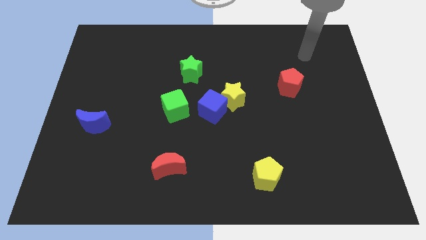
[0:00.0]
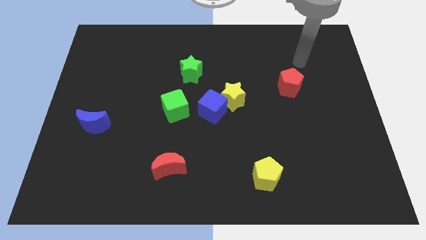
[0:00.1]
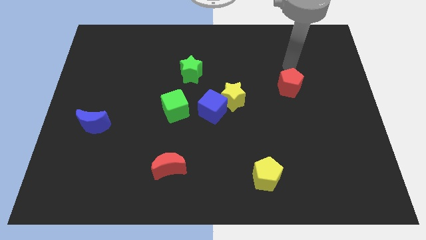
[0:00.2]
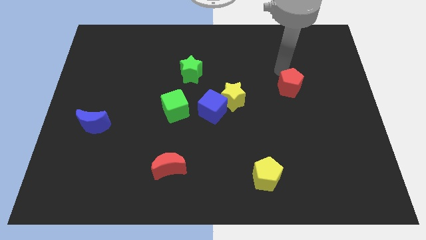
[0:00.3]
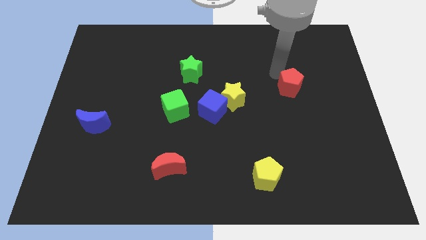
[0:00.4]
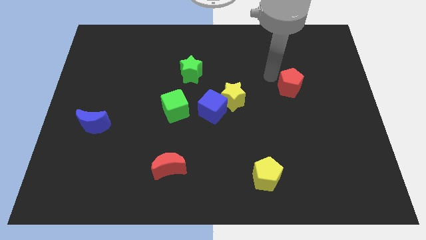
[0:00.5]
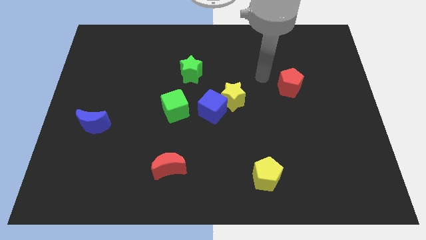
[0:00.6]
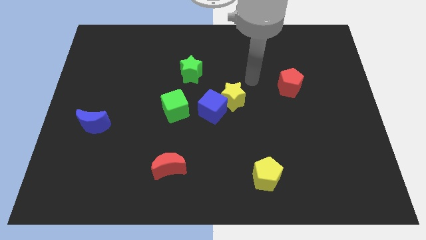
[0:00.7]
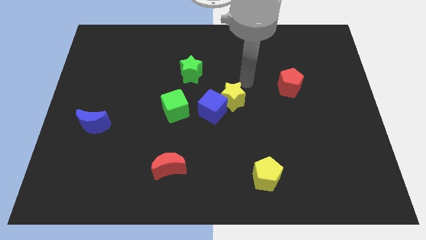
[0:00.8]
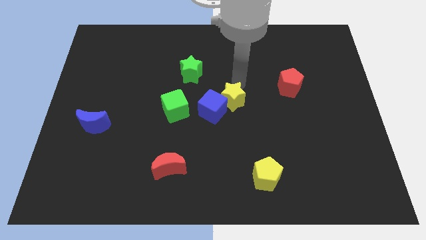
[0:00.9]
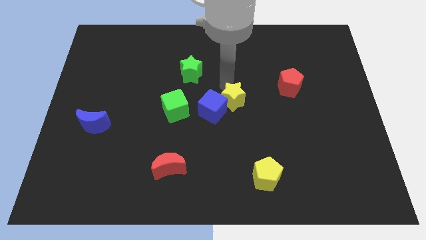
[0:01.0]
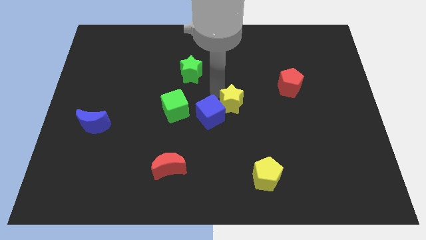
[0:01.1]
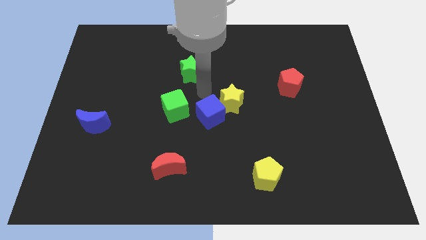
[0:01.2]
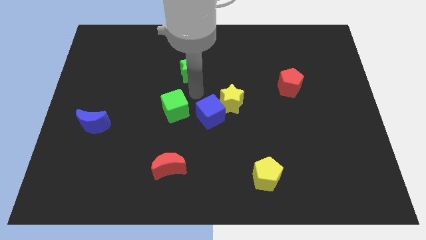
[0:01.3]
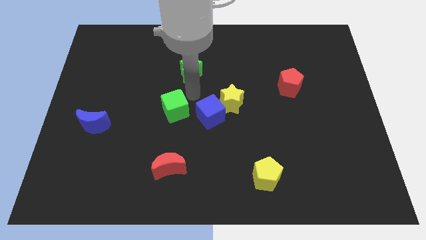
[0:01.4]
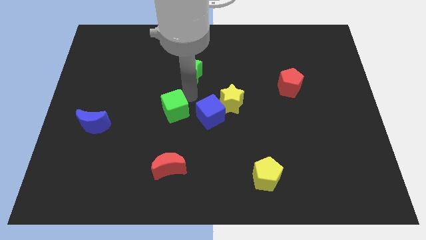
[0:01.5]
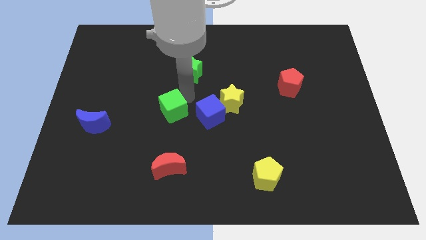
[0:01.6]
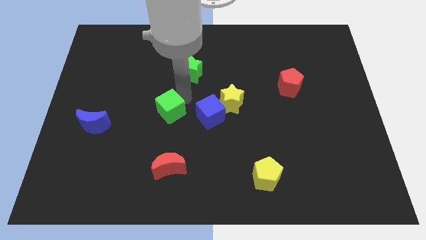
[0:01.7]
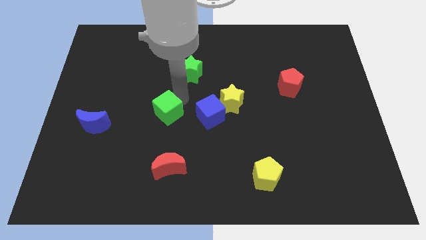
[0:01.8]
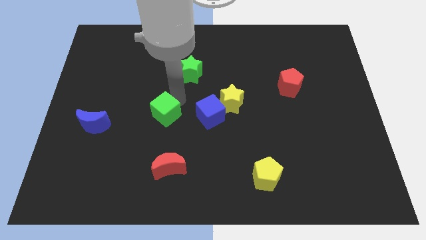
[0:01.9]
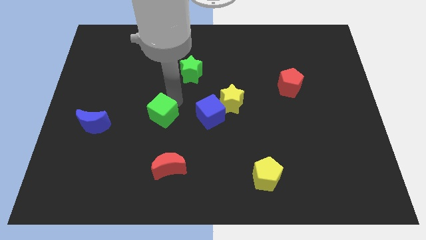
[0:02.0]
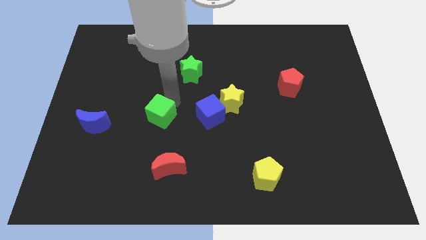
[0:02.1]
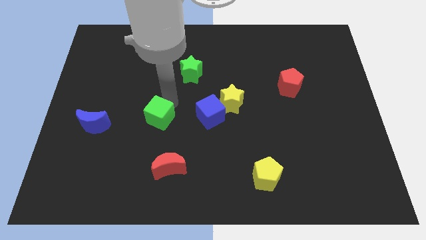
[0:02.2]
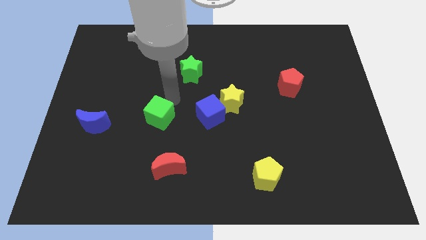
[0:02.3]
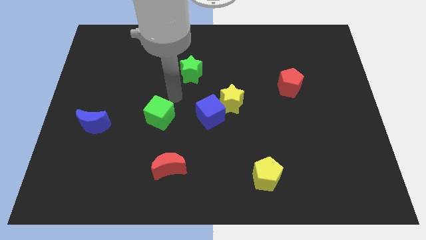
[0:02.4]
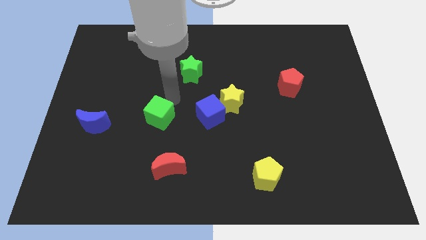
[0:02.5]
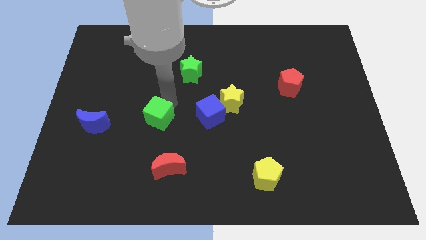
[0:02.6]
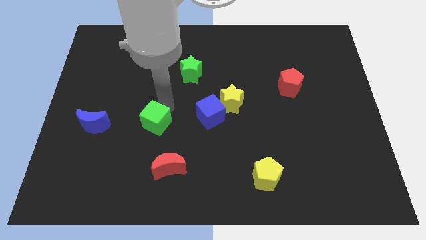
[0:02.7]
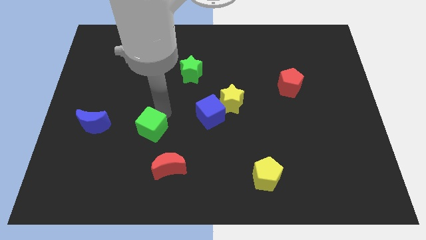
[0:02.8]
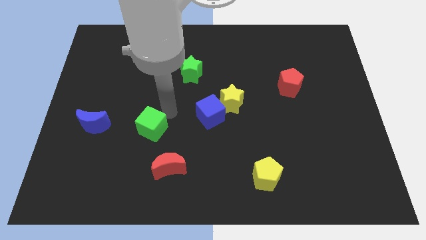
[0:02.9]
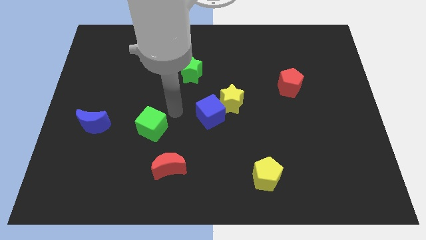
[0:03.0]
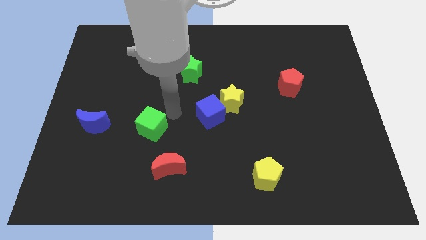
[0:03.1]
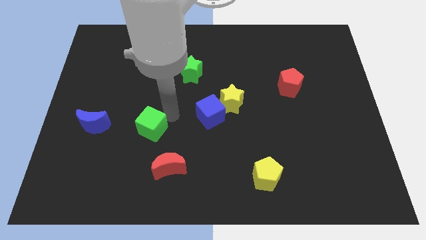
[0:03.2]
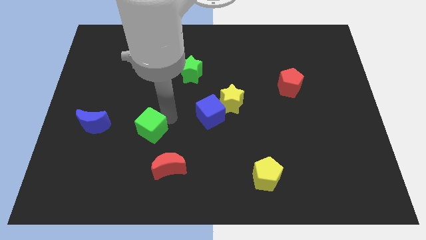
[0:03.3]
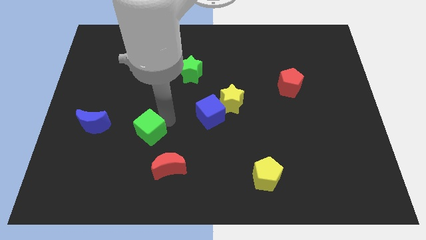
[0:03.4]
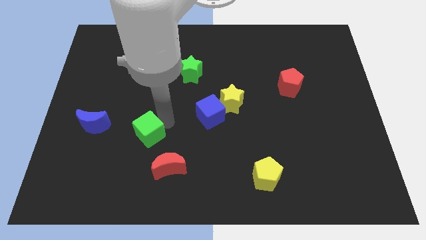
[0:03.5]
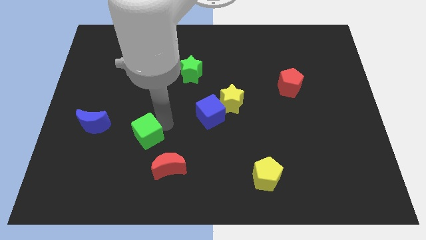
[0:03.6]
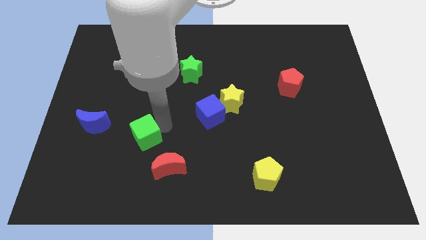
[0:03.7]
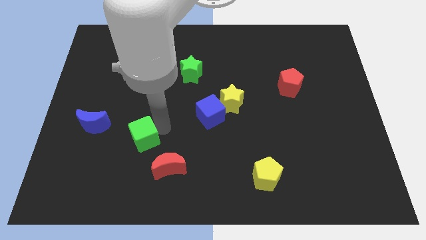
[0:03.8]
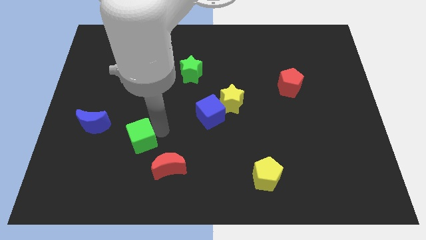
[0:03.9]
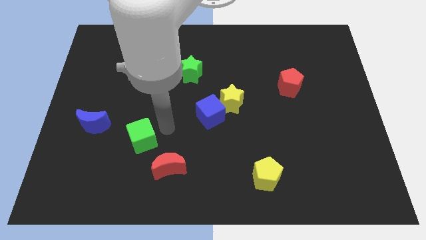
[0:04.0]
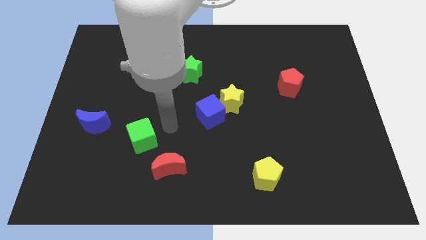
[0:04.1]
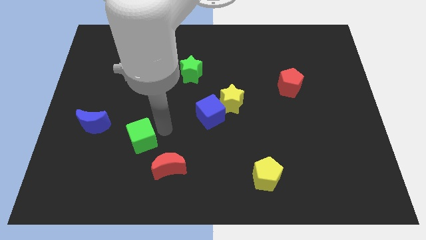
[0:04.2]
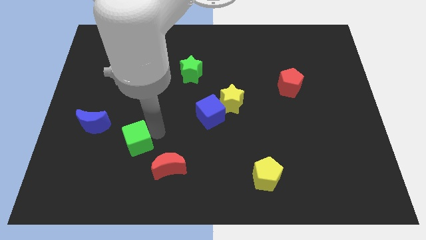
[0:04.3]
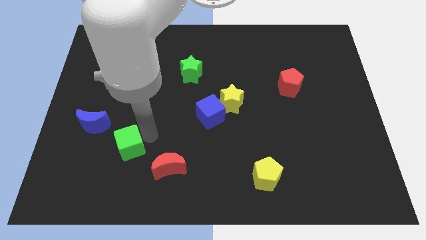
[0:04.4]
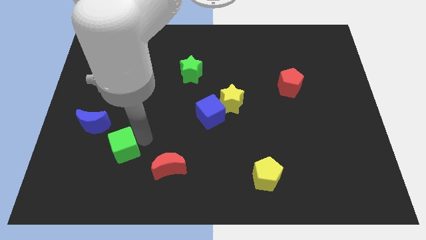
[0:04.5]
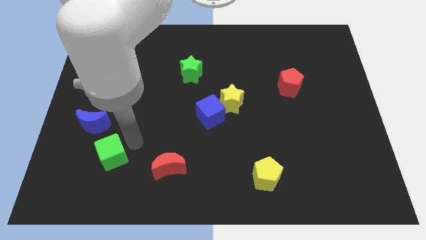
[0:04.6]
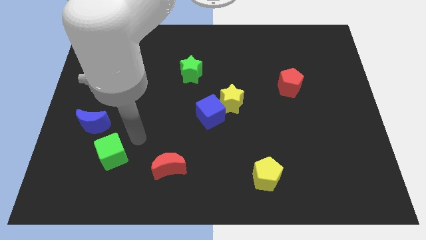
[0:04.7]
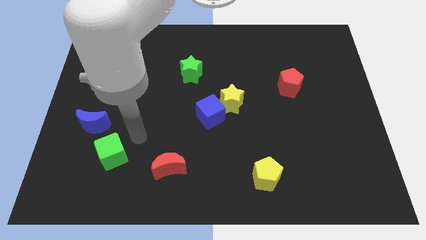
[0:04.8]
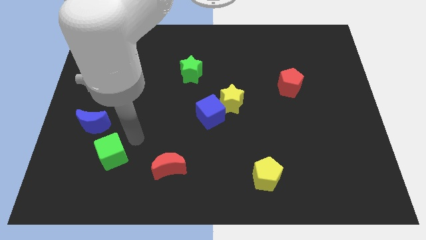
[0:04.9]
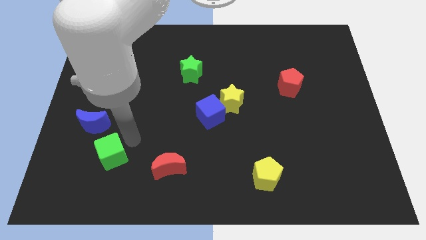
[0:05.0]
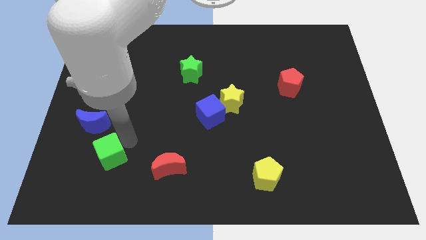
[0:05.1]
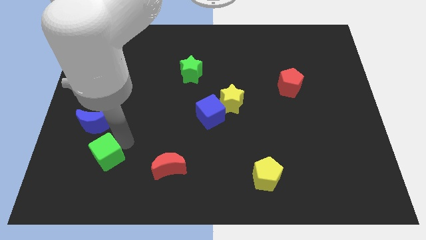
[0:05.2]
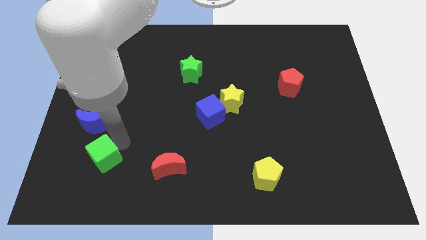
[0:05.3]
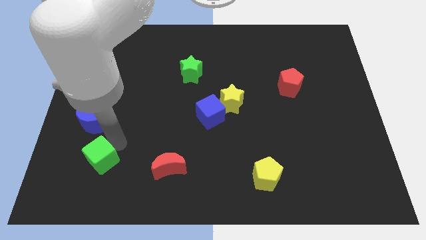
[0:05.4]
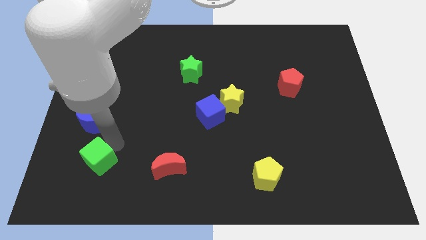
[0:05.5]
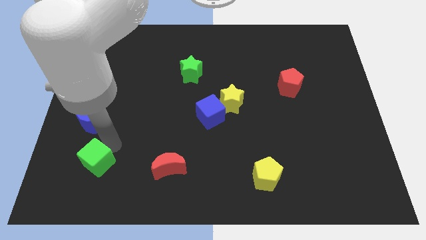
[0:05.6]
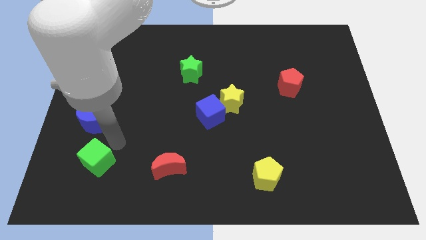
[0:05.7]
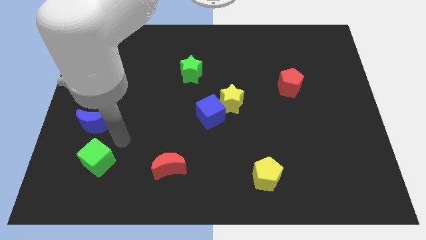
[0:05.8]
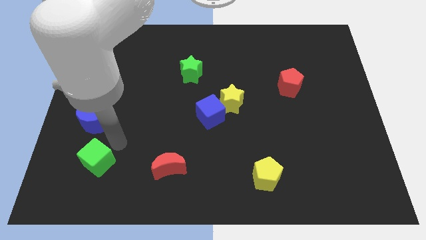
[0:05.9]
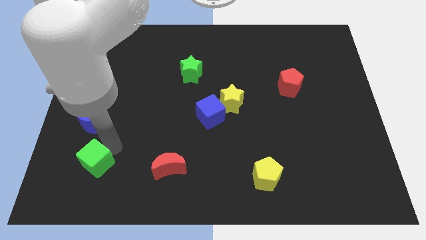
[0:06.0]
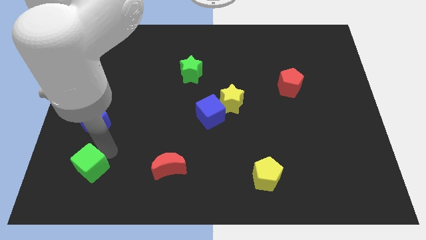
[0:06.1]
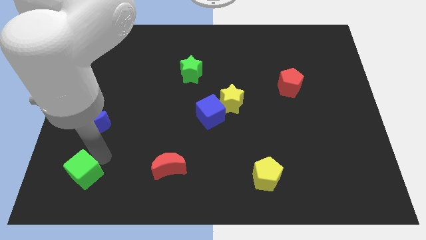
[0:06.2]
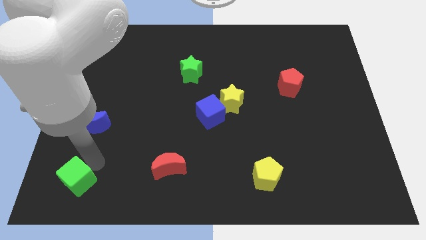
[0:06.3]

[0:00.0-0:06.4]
push the green cube to the bottom left of the board

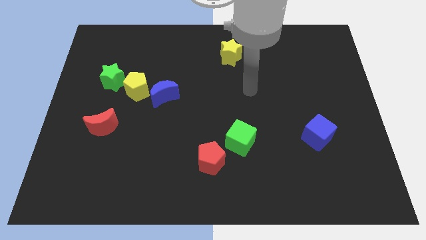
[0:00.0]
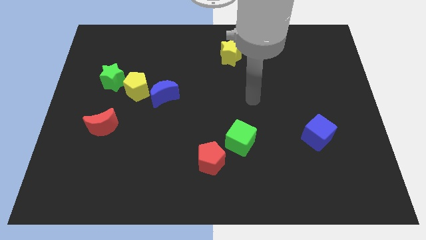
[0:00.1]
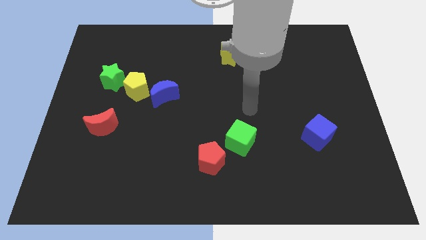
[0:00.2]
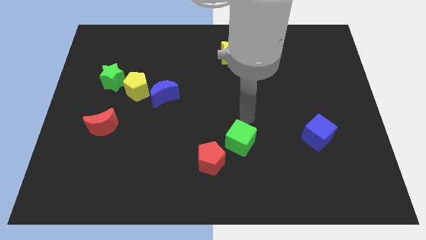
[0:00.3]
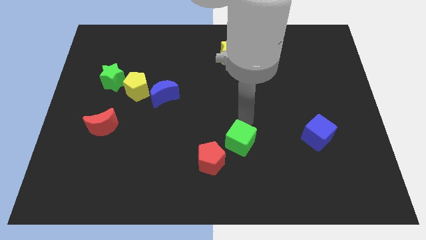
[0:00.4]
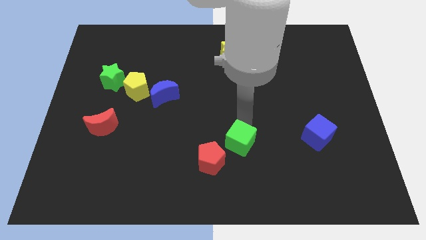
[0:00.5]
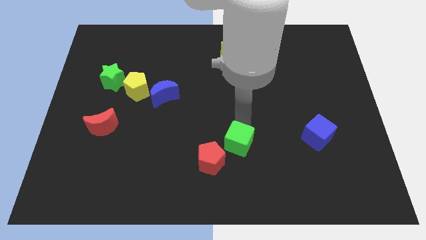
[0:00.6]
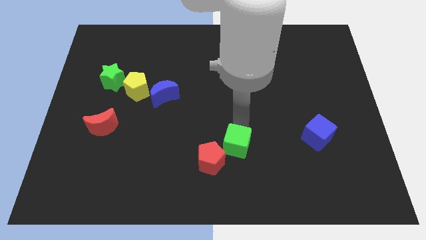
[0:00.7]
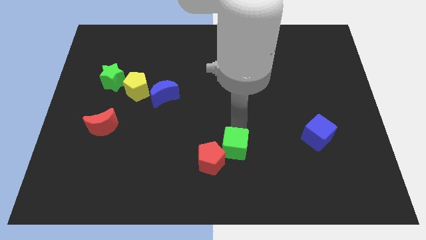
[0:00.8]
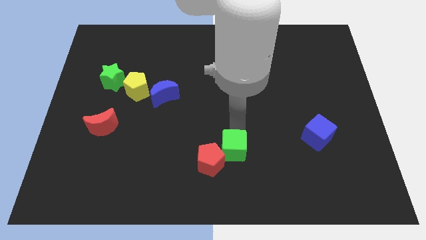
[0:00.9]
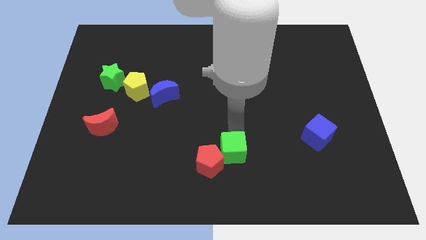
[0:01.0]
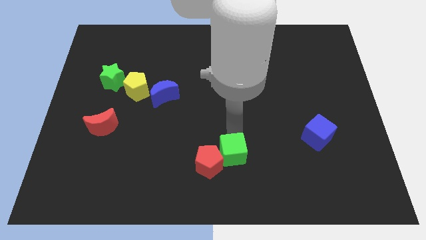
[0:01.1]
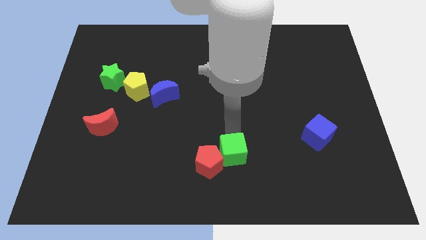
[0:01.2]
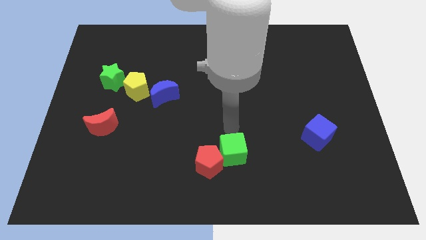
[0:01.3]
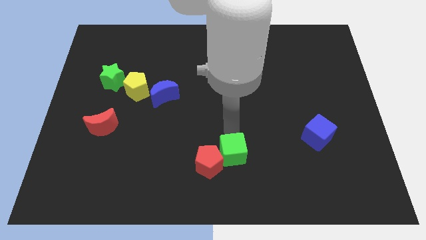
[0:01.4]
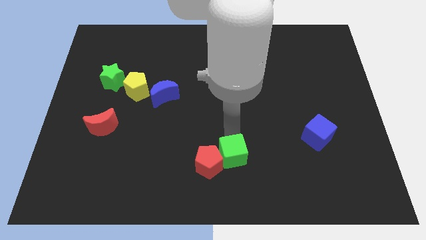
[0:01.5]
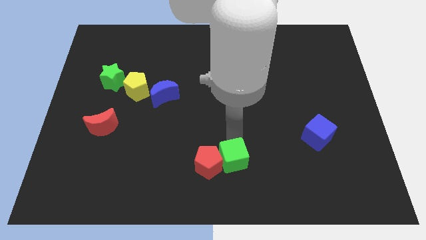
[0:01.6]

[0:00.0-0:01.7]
put the green cube to the bottom
